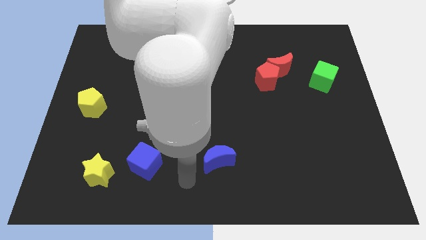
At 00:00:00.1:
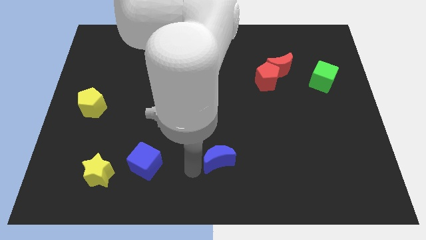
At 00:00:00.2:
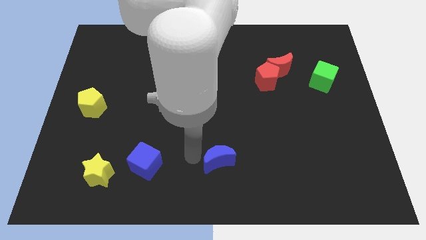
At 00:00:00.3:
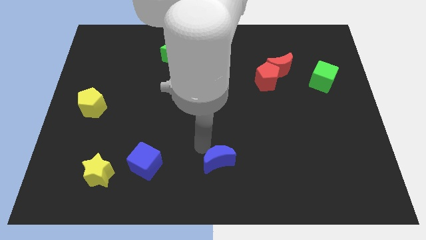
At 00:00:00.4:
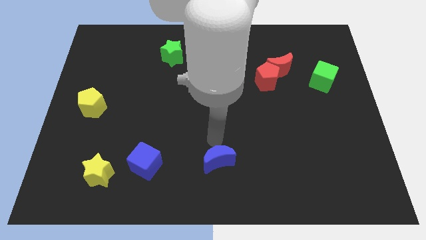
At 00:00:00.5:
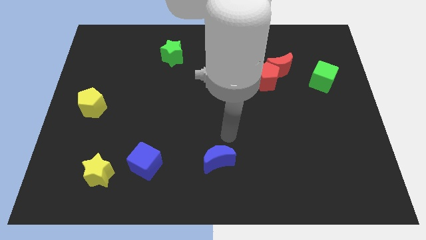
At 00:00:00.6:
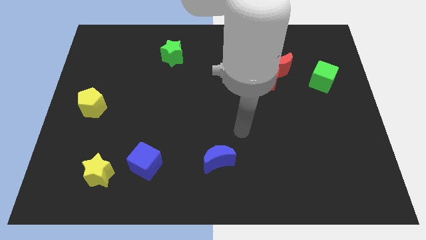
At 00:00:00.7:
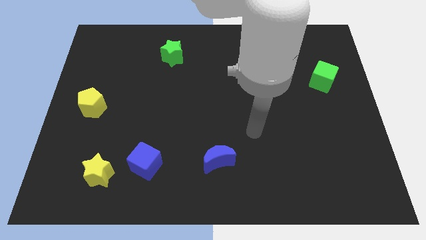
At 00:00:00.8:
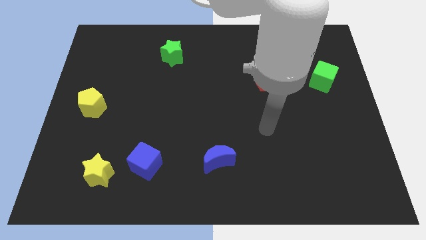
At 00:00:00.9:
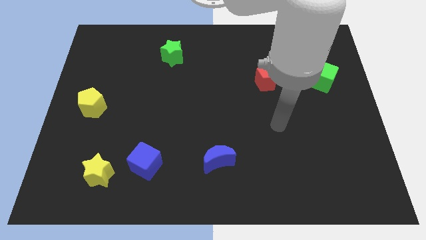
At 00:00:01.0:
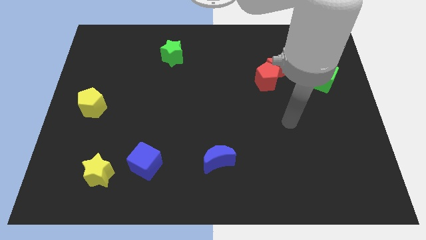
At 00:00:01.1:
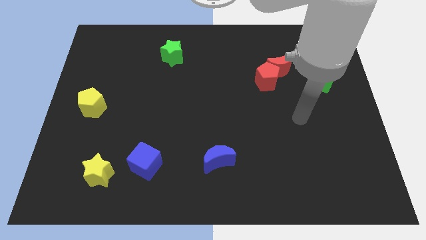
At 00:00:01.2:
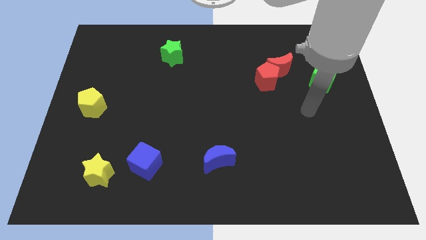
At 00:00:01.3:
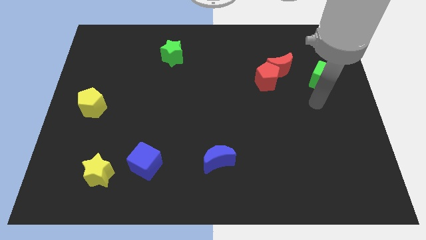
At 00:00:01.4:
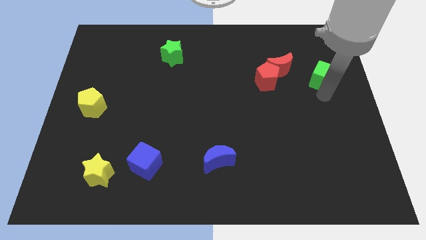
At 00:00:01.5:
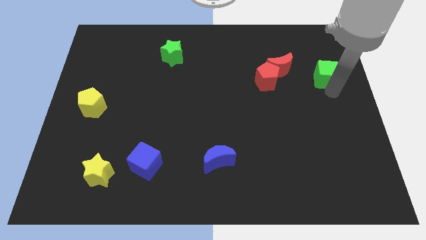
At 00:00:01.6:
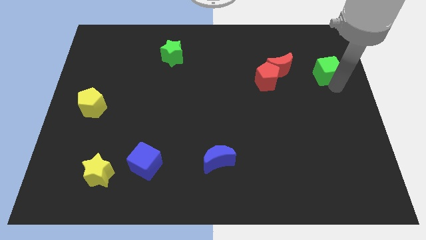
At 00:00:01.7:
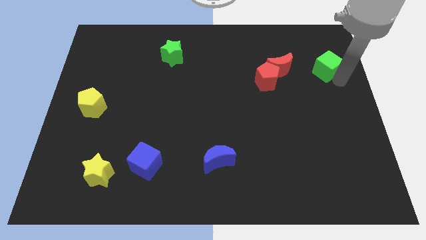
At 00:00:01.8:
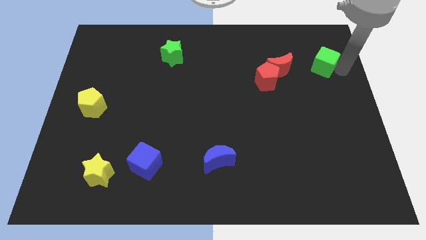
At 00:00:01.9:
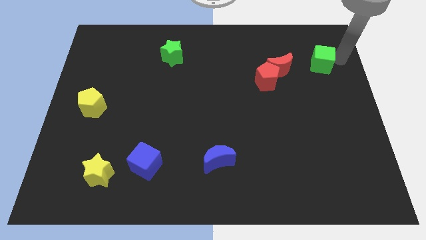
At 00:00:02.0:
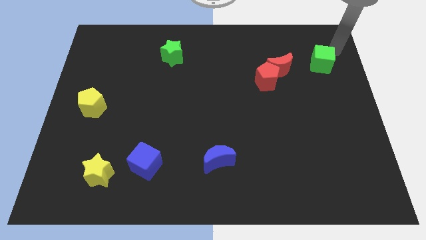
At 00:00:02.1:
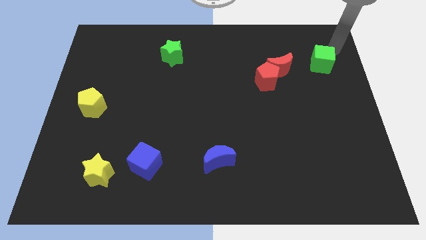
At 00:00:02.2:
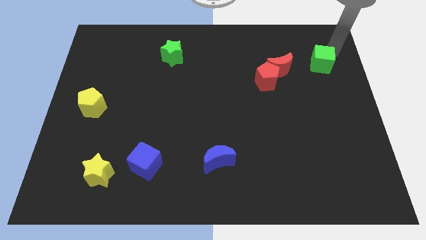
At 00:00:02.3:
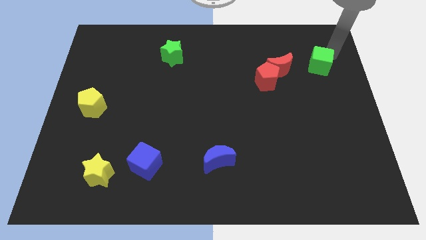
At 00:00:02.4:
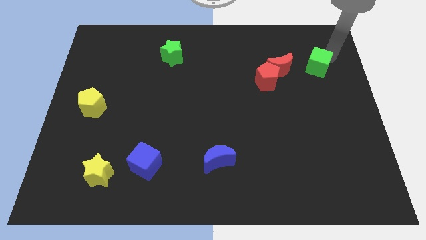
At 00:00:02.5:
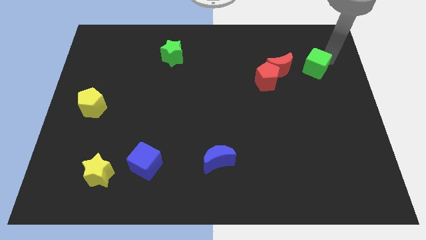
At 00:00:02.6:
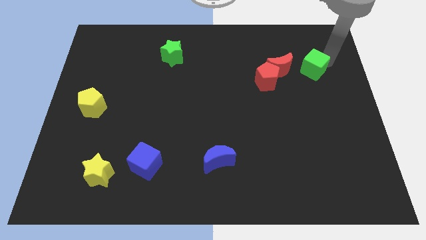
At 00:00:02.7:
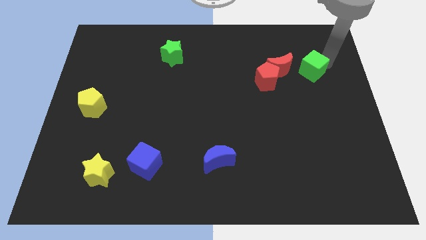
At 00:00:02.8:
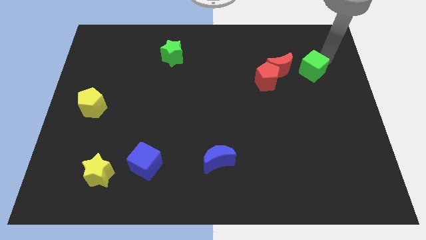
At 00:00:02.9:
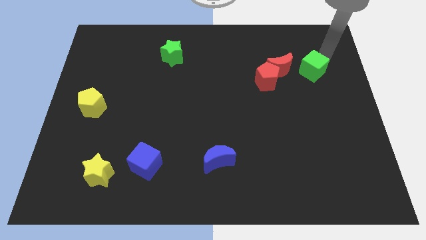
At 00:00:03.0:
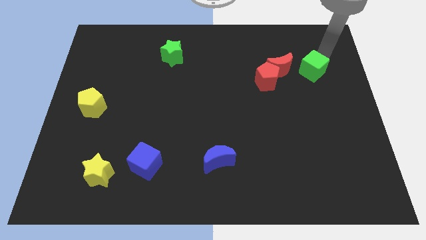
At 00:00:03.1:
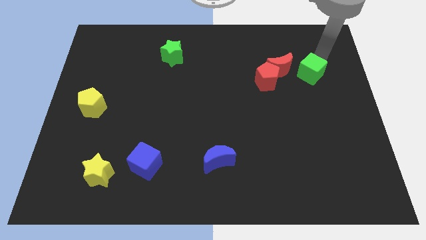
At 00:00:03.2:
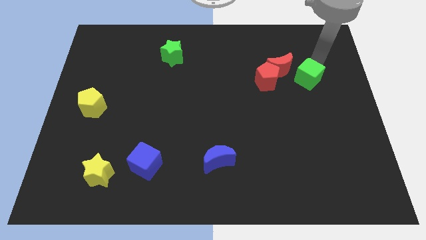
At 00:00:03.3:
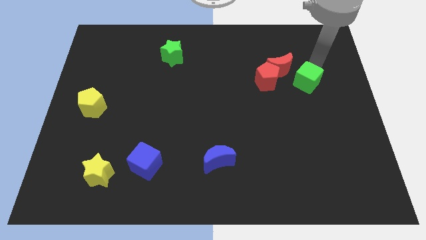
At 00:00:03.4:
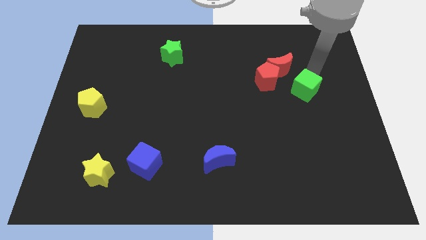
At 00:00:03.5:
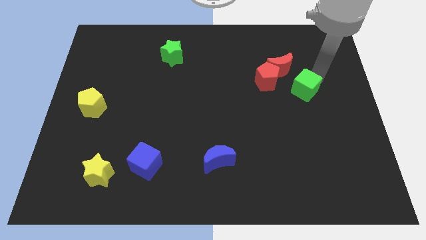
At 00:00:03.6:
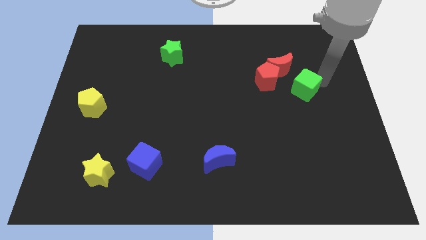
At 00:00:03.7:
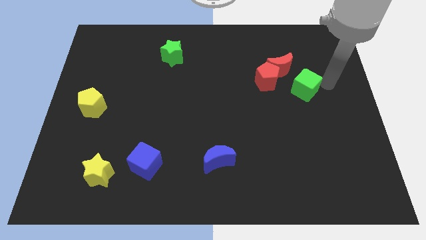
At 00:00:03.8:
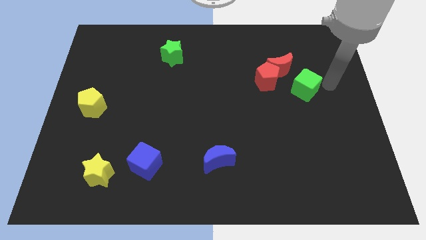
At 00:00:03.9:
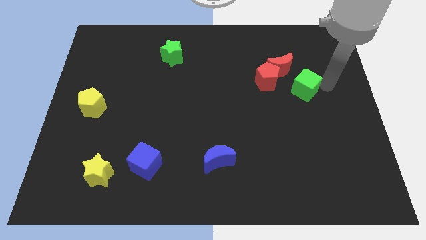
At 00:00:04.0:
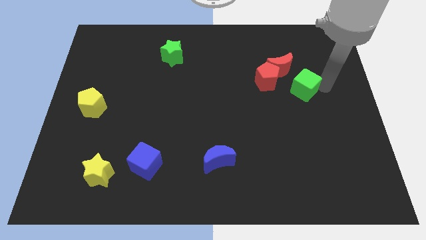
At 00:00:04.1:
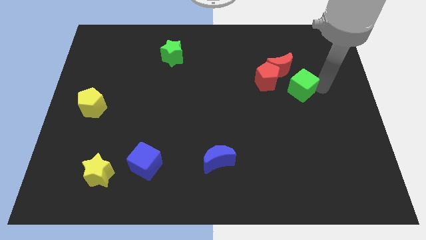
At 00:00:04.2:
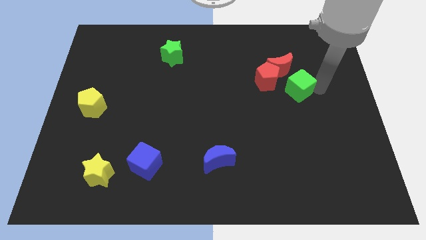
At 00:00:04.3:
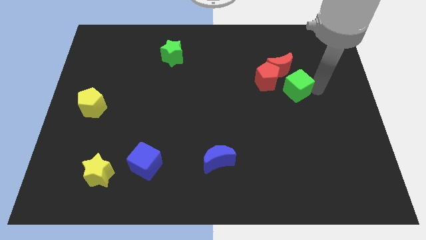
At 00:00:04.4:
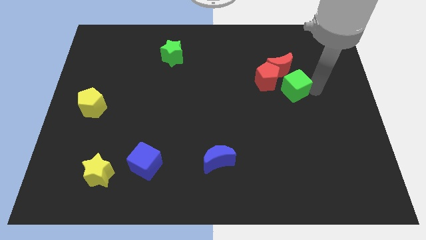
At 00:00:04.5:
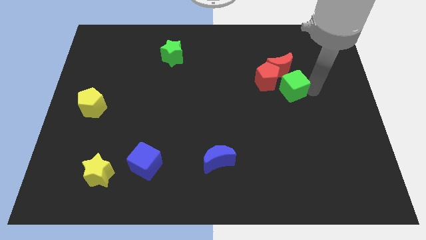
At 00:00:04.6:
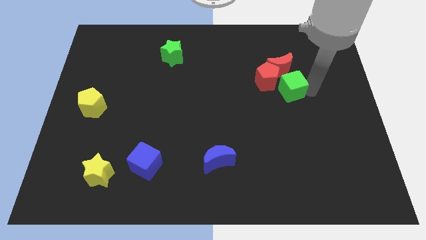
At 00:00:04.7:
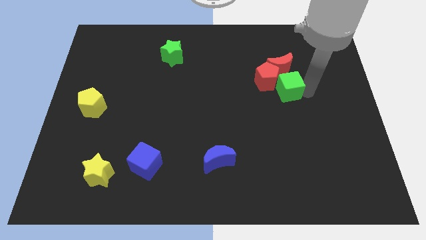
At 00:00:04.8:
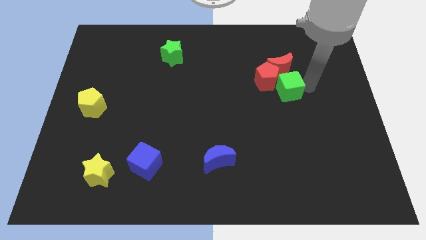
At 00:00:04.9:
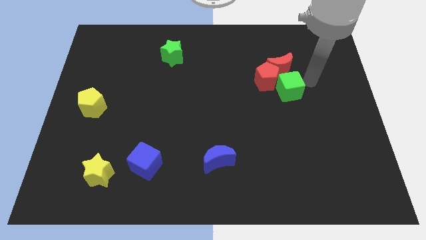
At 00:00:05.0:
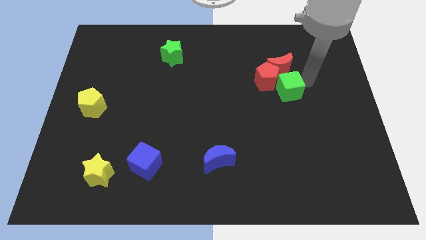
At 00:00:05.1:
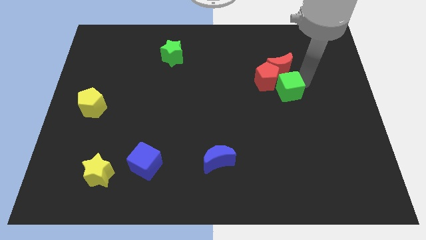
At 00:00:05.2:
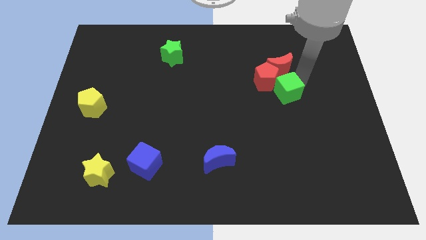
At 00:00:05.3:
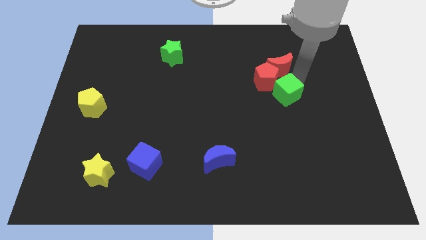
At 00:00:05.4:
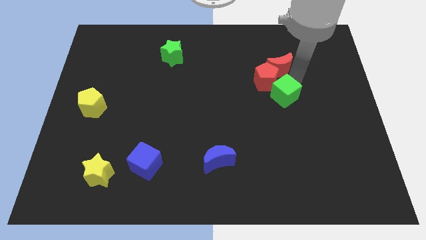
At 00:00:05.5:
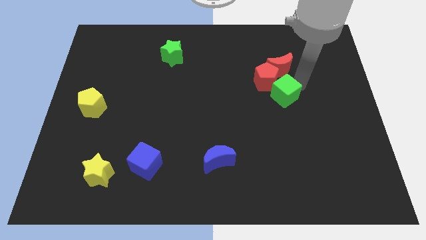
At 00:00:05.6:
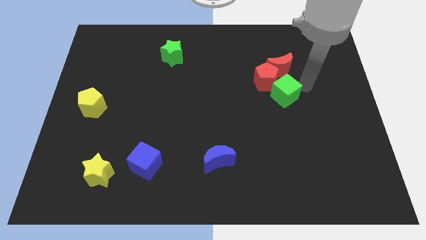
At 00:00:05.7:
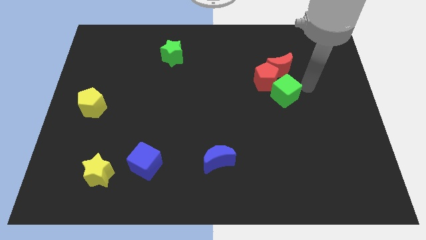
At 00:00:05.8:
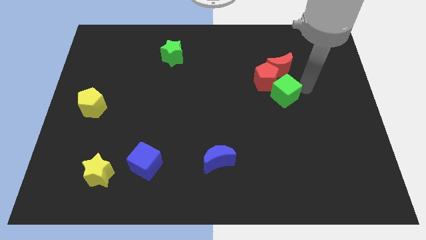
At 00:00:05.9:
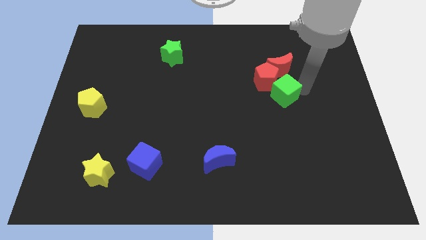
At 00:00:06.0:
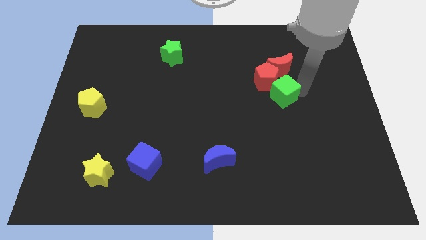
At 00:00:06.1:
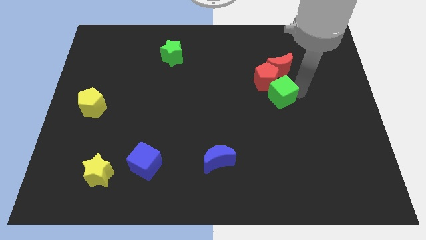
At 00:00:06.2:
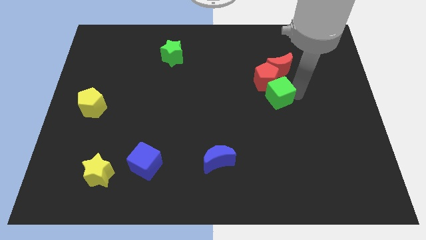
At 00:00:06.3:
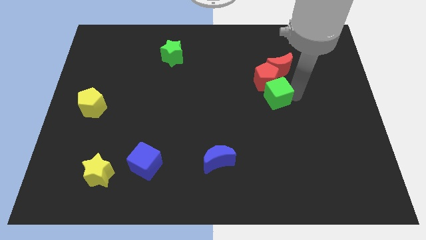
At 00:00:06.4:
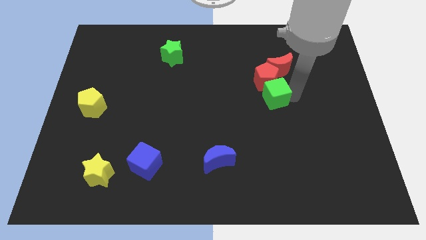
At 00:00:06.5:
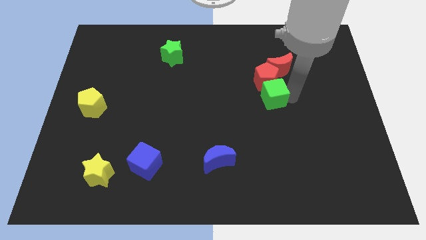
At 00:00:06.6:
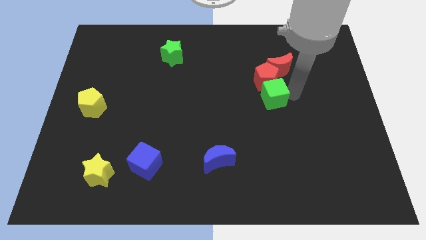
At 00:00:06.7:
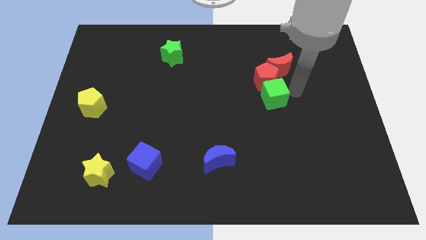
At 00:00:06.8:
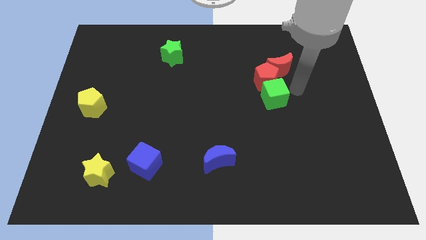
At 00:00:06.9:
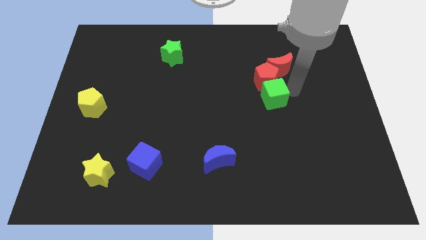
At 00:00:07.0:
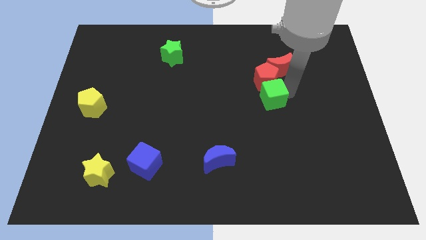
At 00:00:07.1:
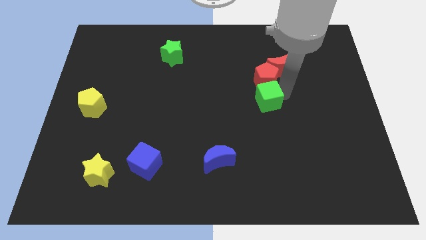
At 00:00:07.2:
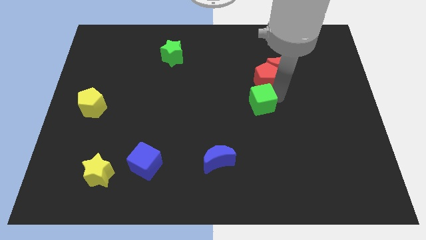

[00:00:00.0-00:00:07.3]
put the green cube to the center of the board

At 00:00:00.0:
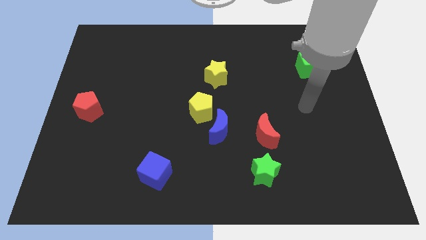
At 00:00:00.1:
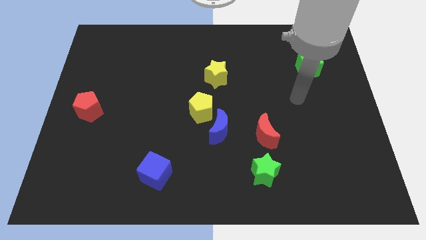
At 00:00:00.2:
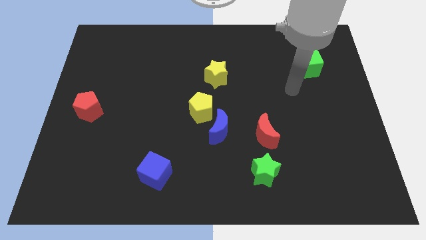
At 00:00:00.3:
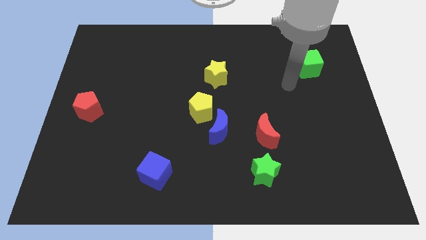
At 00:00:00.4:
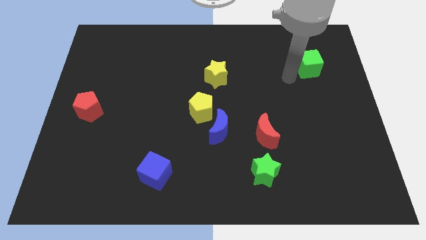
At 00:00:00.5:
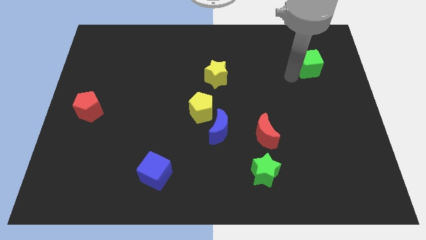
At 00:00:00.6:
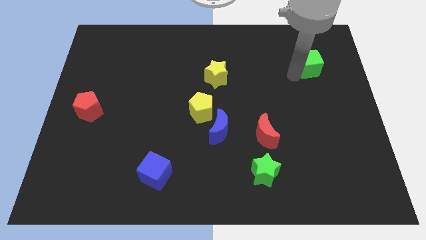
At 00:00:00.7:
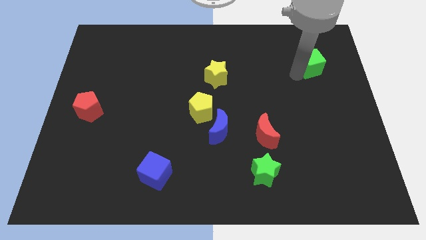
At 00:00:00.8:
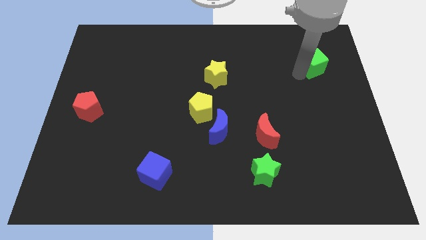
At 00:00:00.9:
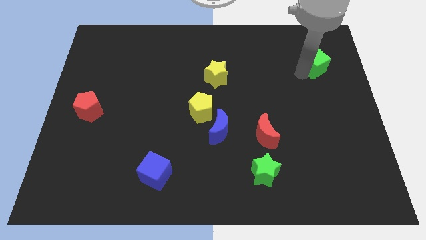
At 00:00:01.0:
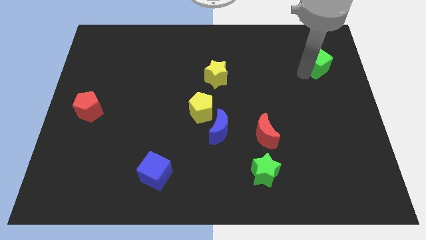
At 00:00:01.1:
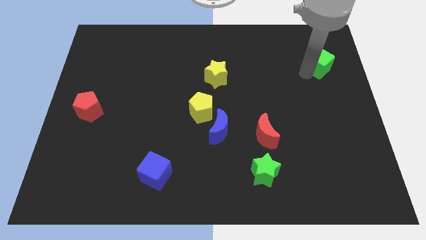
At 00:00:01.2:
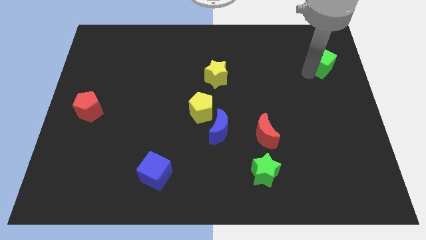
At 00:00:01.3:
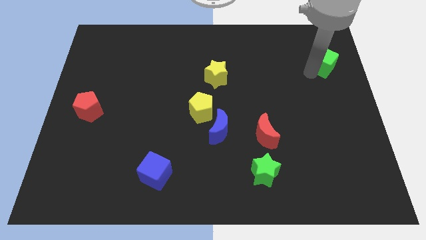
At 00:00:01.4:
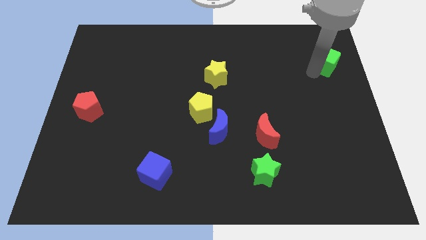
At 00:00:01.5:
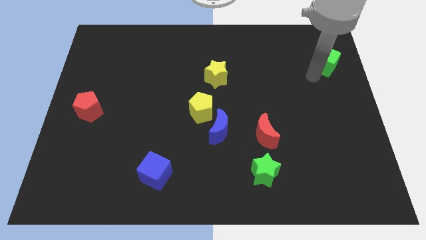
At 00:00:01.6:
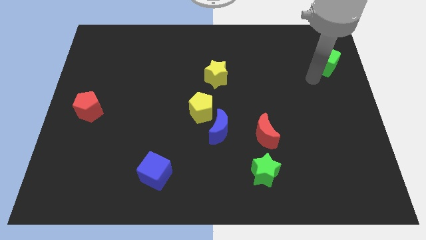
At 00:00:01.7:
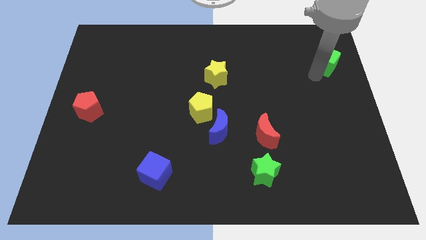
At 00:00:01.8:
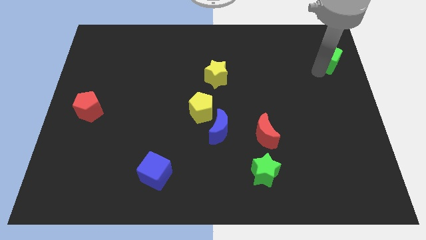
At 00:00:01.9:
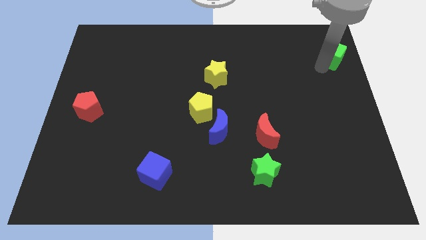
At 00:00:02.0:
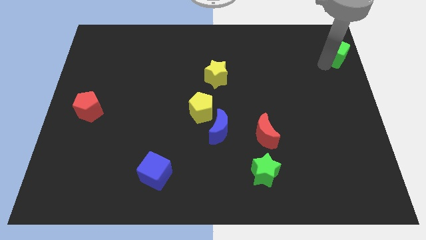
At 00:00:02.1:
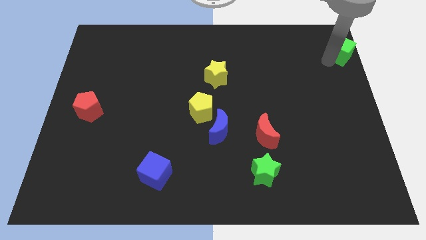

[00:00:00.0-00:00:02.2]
slide the green cube to the top right of the board
